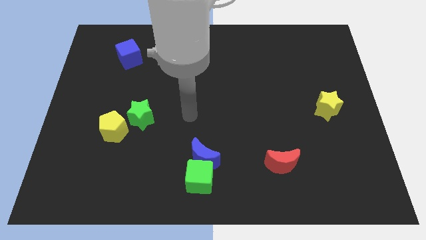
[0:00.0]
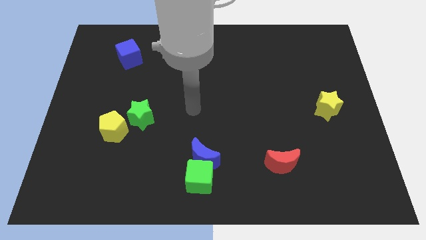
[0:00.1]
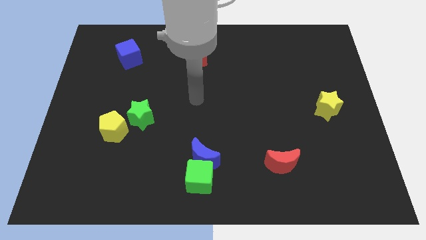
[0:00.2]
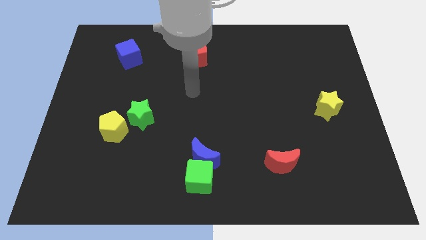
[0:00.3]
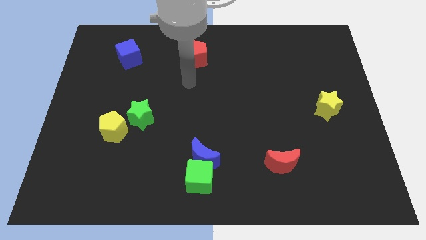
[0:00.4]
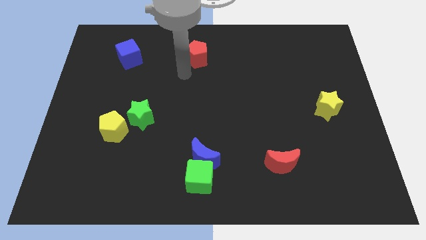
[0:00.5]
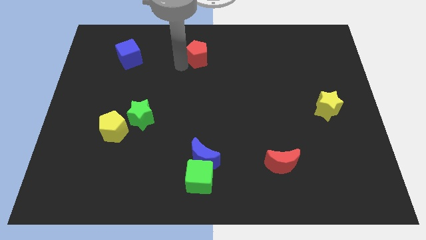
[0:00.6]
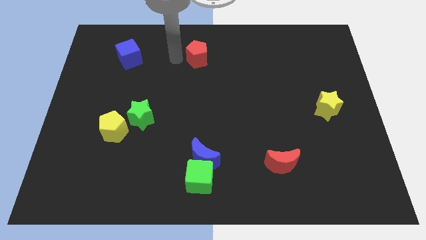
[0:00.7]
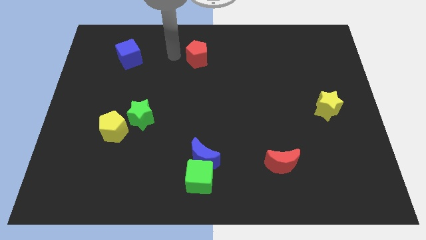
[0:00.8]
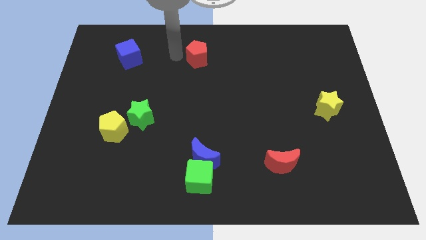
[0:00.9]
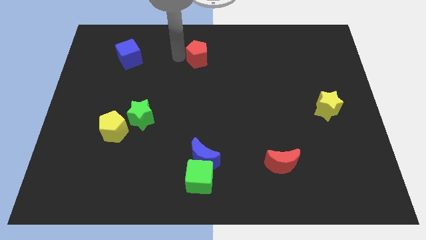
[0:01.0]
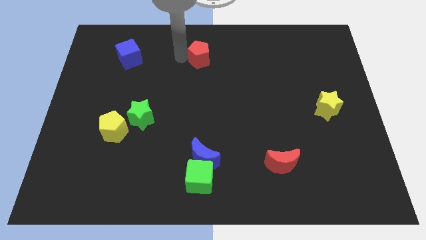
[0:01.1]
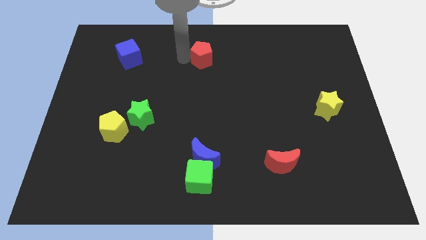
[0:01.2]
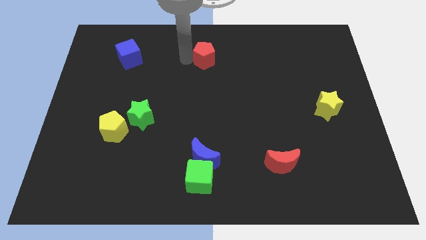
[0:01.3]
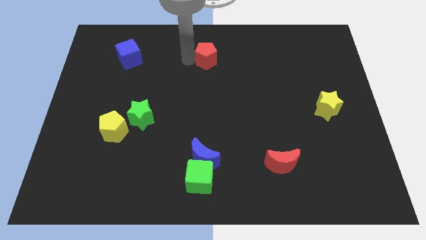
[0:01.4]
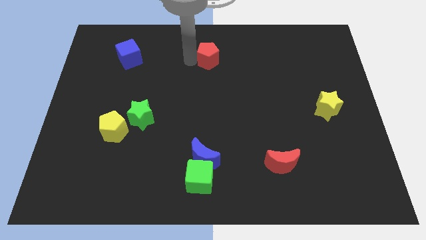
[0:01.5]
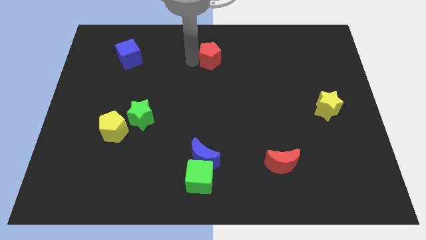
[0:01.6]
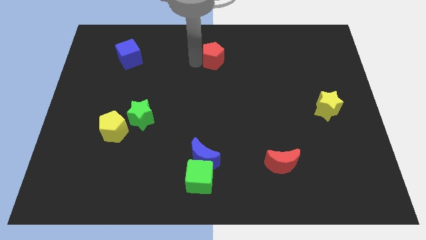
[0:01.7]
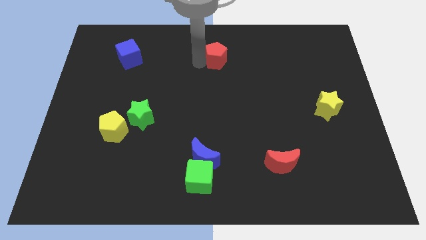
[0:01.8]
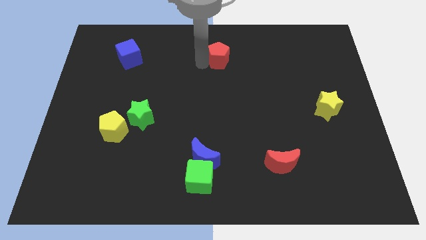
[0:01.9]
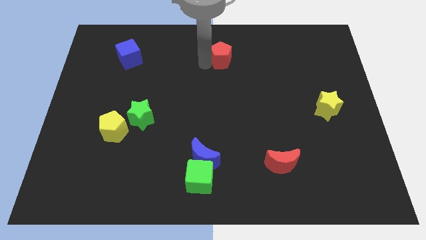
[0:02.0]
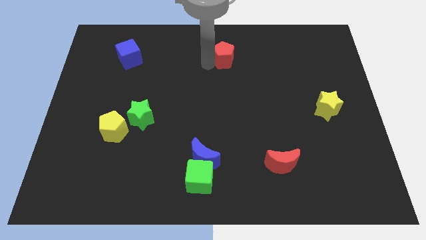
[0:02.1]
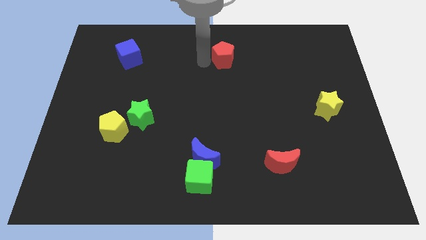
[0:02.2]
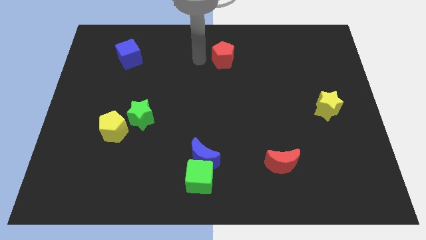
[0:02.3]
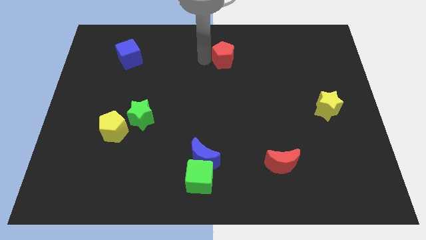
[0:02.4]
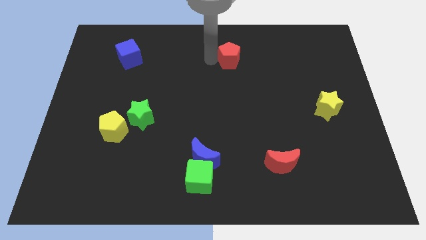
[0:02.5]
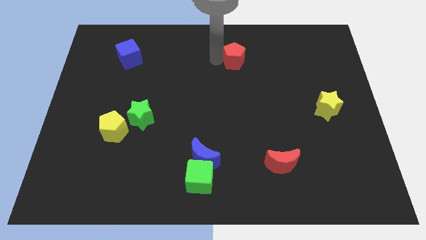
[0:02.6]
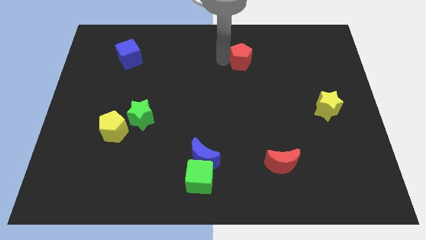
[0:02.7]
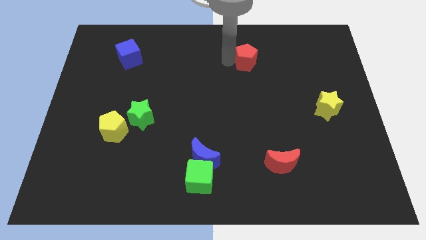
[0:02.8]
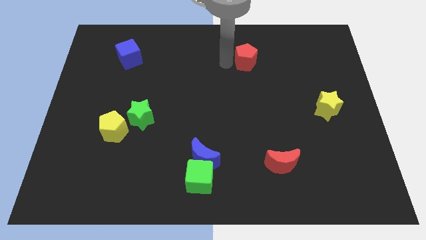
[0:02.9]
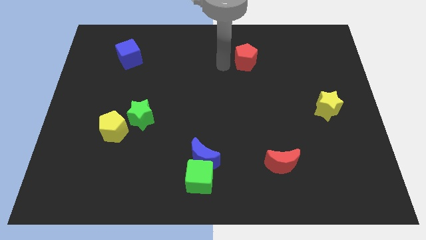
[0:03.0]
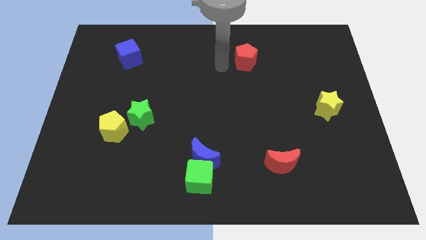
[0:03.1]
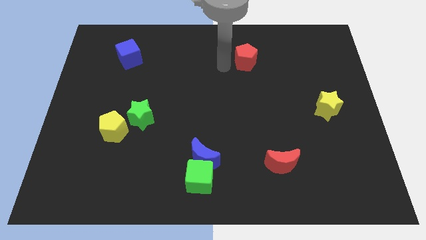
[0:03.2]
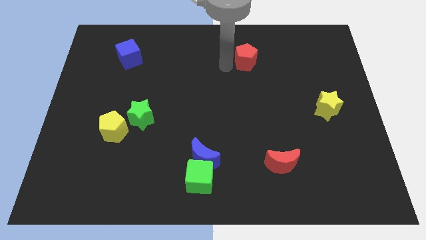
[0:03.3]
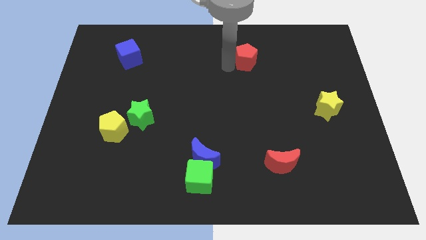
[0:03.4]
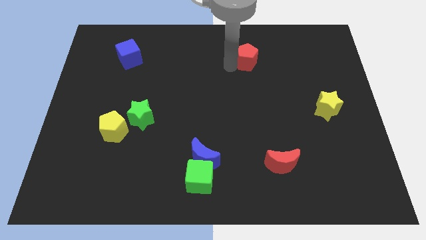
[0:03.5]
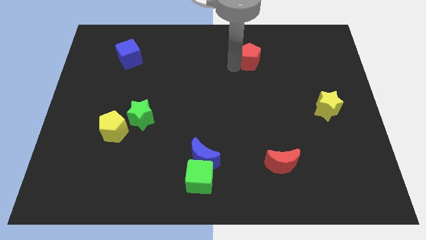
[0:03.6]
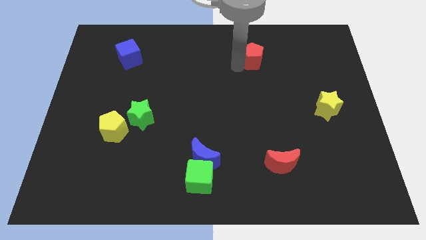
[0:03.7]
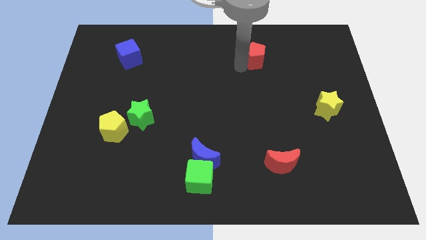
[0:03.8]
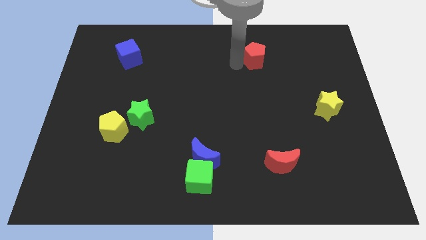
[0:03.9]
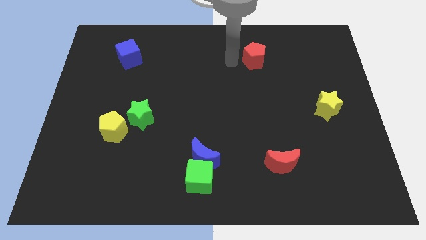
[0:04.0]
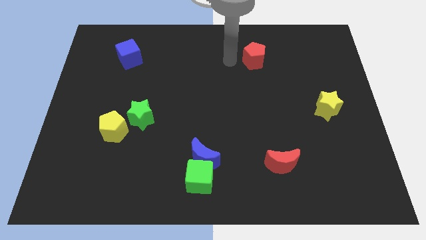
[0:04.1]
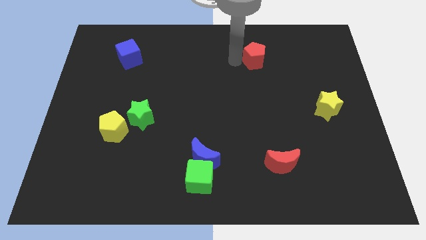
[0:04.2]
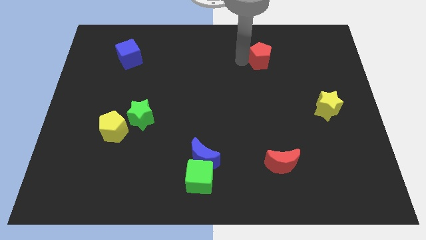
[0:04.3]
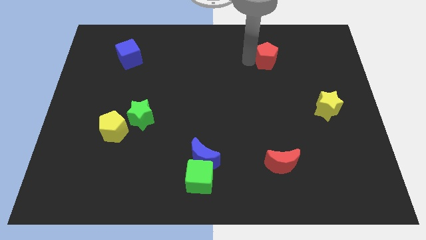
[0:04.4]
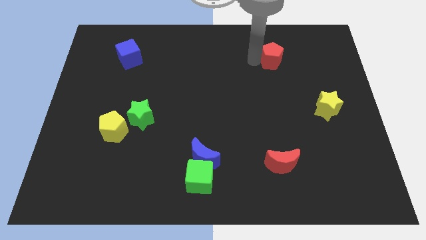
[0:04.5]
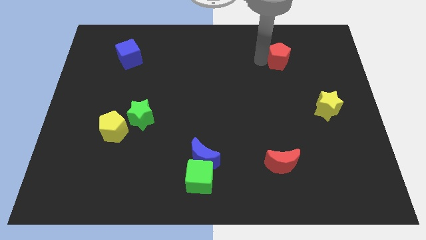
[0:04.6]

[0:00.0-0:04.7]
move the red pentagon right

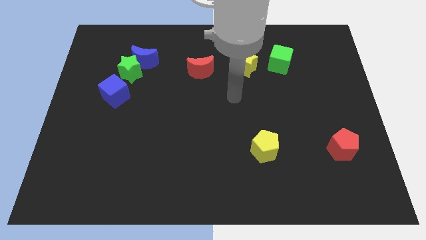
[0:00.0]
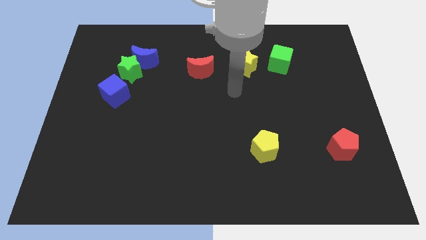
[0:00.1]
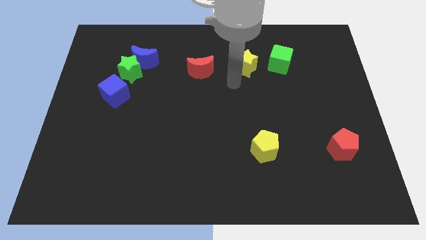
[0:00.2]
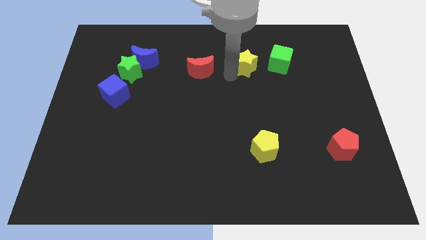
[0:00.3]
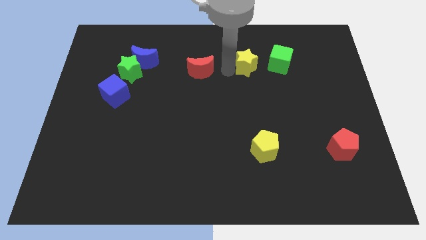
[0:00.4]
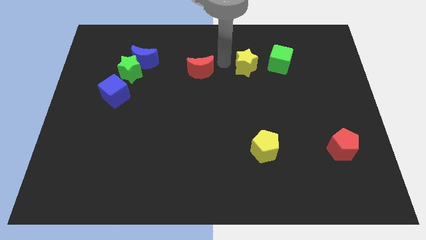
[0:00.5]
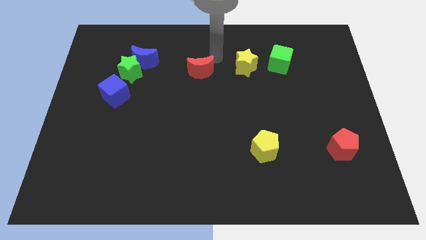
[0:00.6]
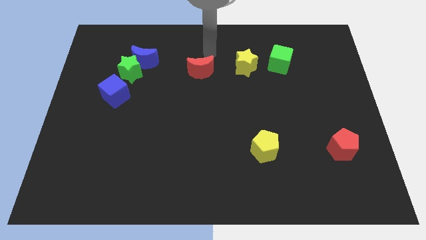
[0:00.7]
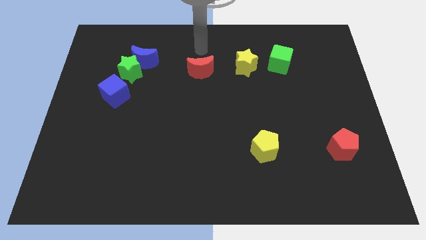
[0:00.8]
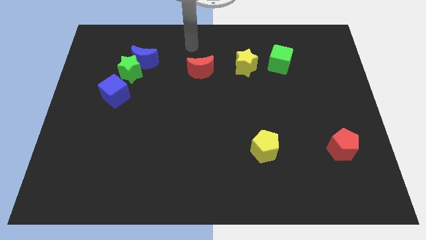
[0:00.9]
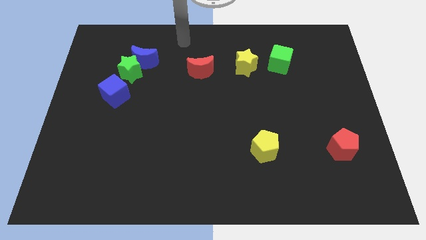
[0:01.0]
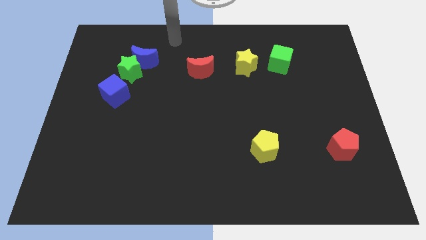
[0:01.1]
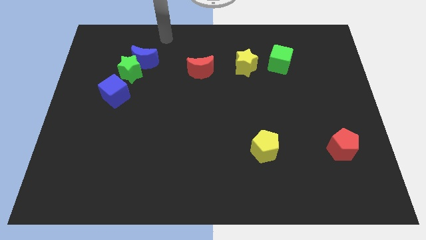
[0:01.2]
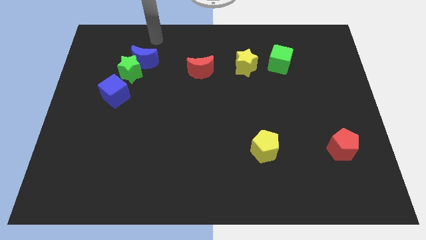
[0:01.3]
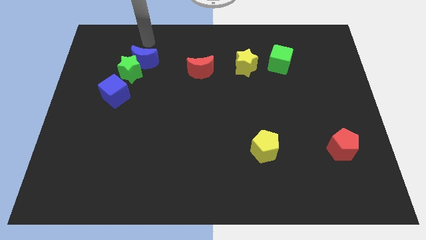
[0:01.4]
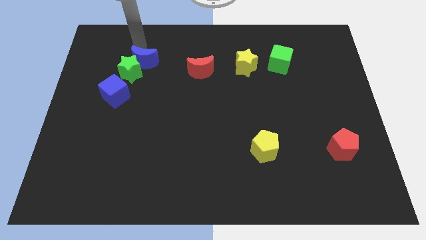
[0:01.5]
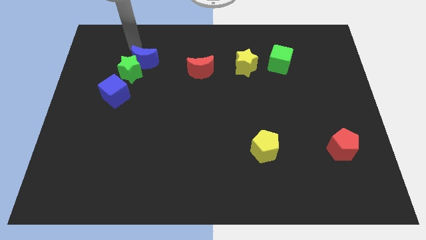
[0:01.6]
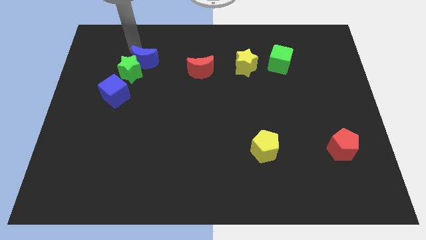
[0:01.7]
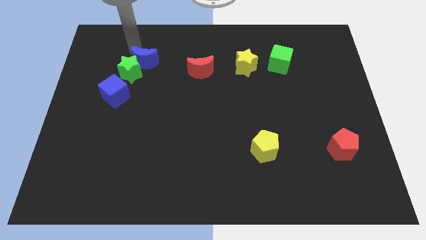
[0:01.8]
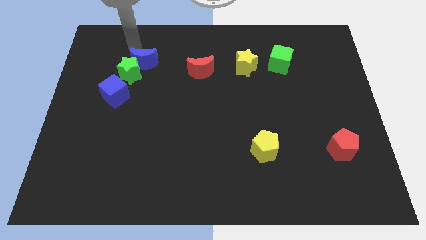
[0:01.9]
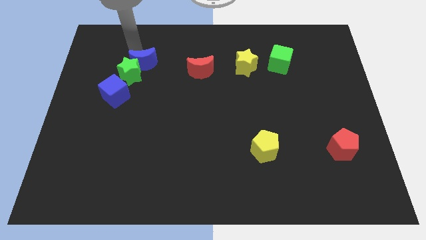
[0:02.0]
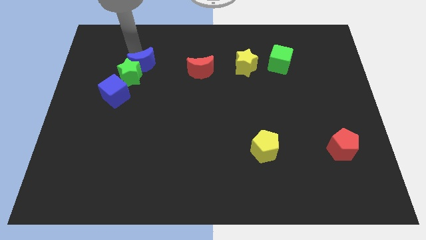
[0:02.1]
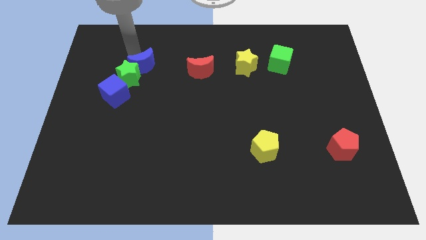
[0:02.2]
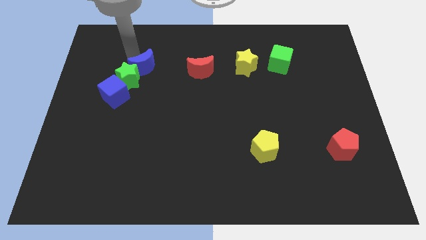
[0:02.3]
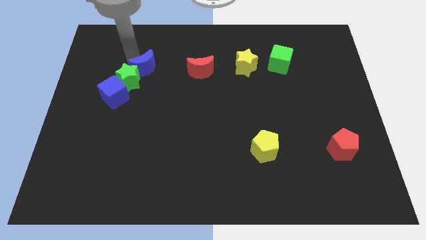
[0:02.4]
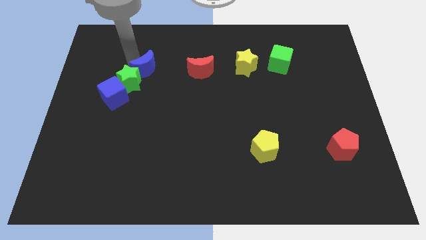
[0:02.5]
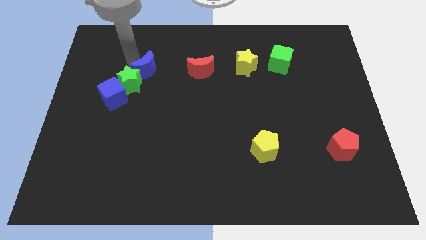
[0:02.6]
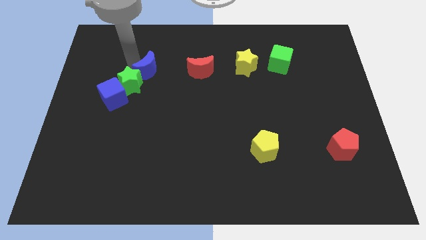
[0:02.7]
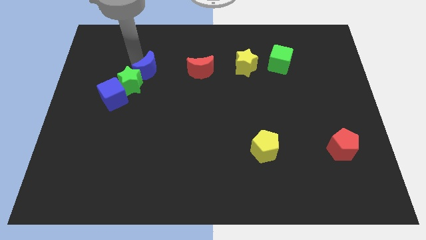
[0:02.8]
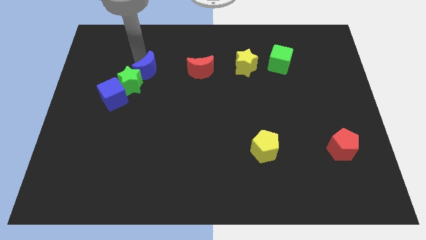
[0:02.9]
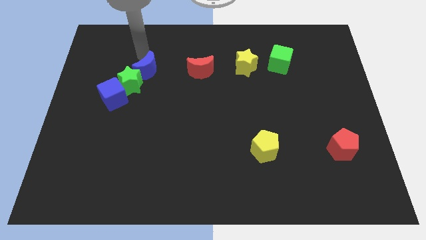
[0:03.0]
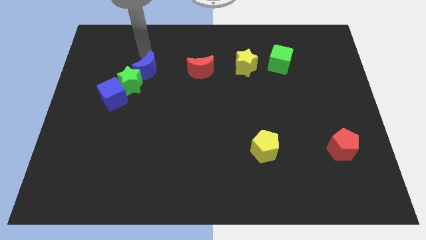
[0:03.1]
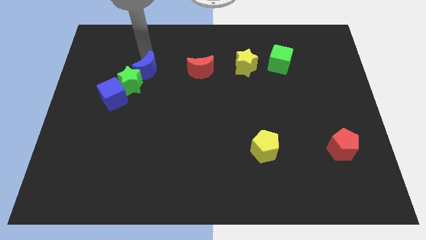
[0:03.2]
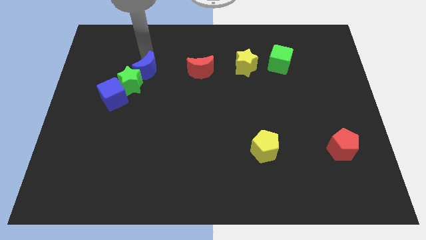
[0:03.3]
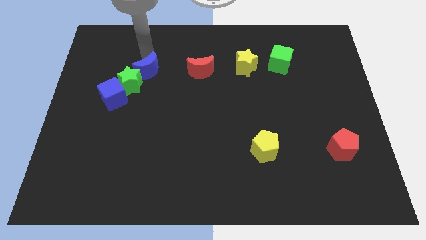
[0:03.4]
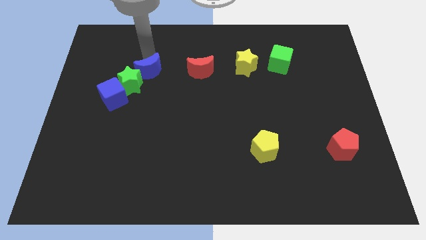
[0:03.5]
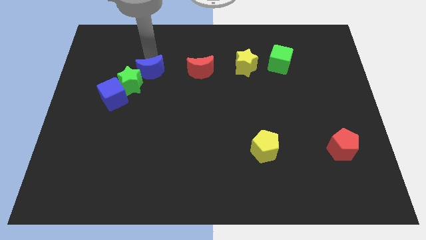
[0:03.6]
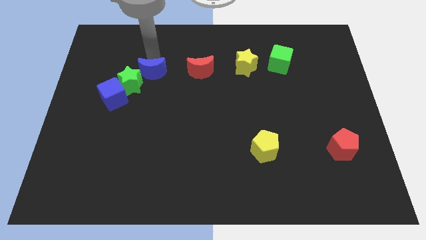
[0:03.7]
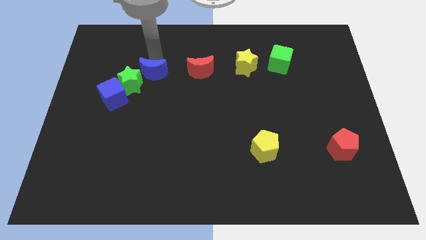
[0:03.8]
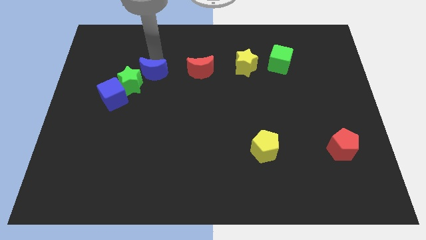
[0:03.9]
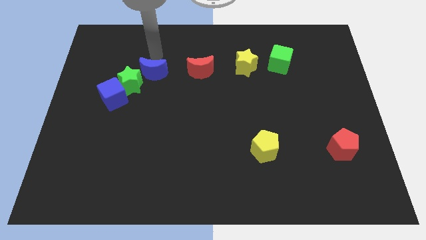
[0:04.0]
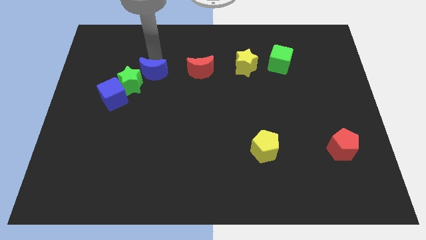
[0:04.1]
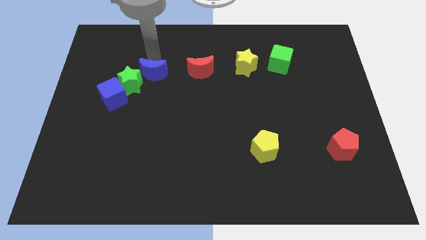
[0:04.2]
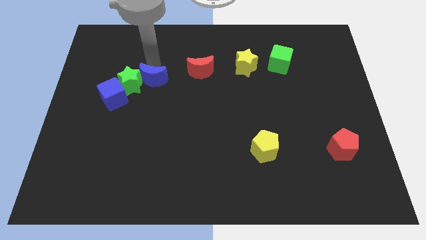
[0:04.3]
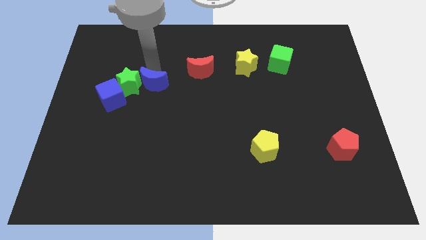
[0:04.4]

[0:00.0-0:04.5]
slide the blue moon down a little
